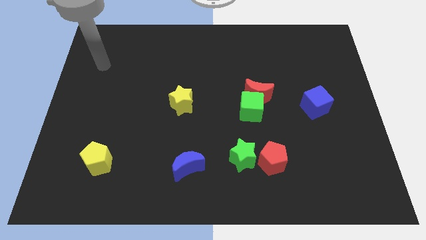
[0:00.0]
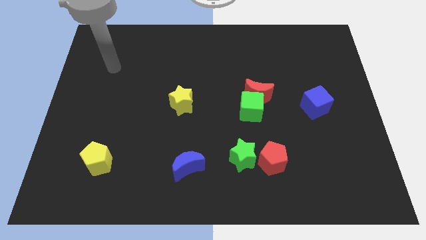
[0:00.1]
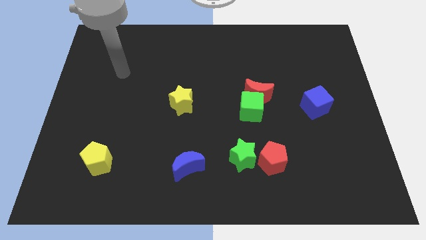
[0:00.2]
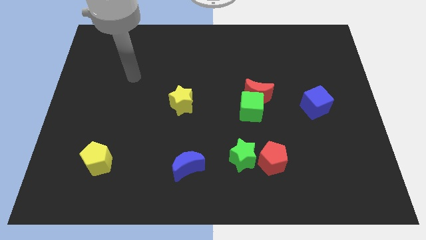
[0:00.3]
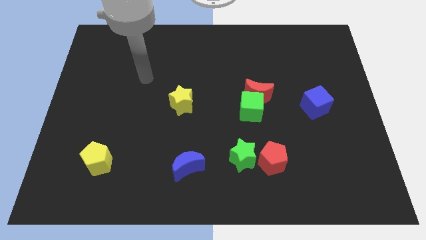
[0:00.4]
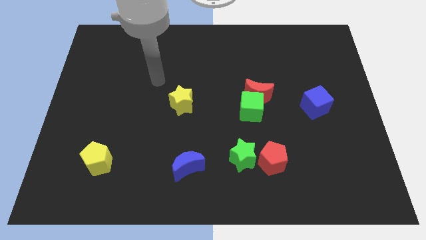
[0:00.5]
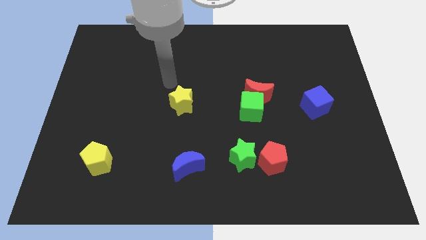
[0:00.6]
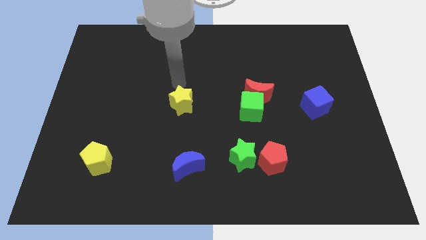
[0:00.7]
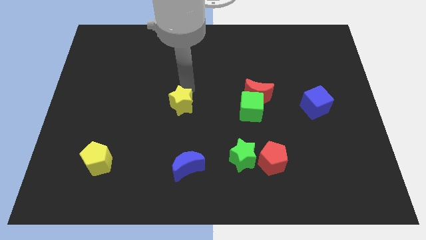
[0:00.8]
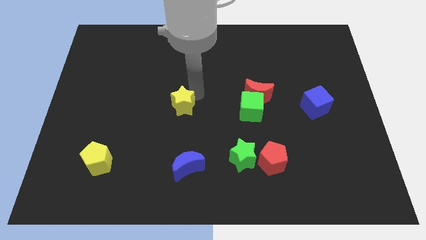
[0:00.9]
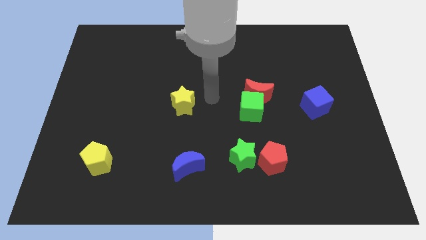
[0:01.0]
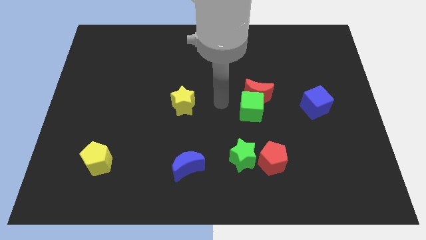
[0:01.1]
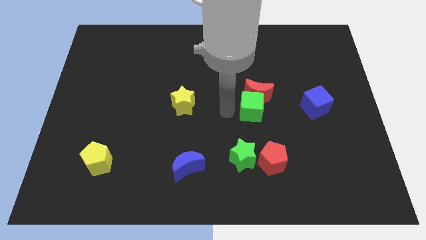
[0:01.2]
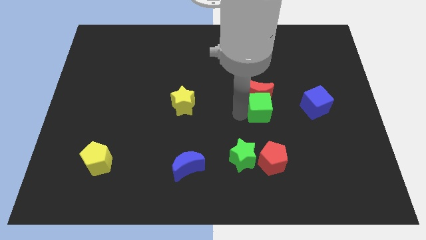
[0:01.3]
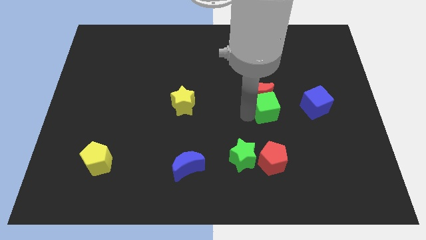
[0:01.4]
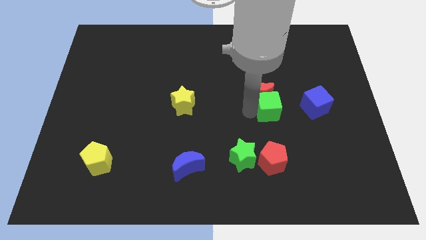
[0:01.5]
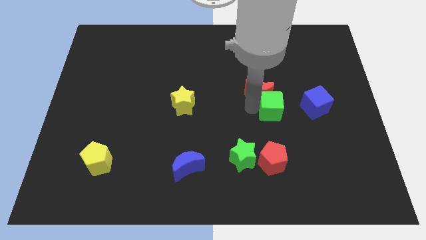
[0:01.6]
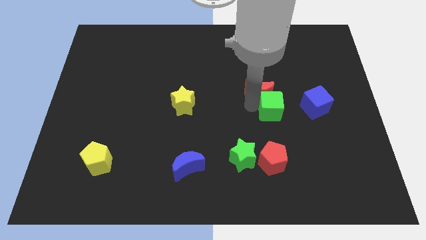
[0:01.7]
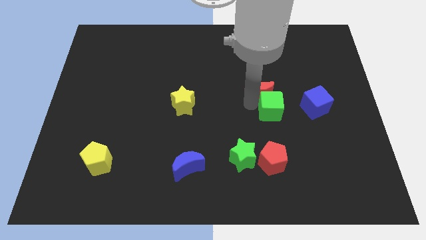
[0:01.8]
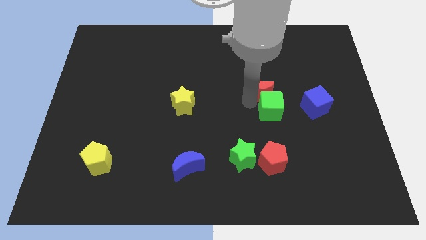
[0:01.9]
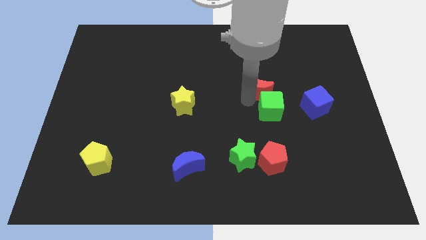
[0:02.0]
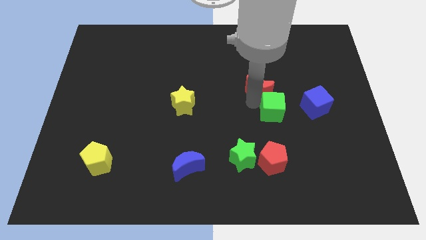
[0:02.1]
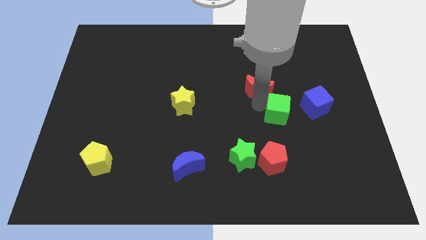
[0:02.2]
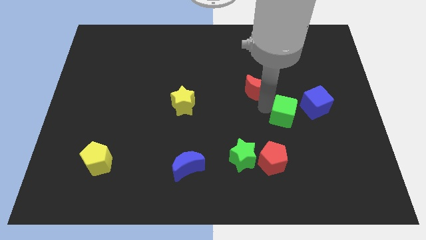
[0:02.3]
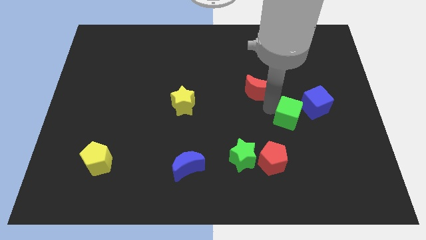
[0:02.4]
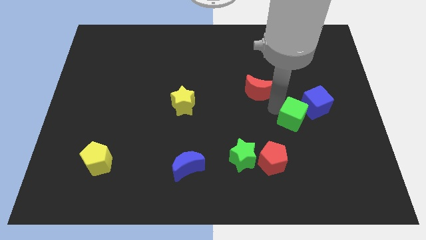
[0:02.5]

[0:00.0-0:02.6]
pull the red moon apart from the green cube

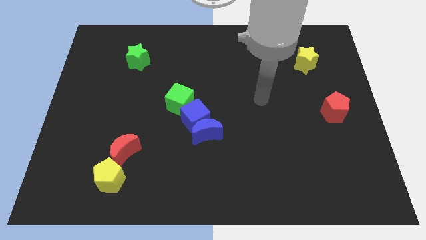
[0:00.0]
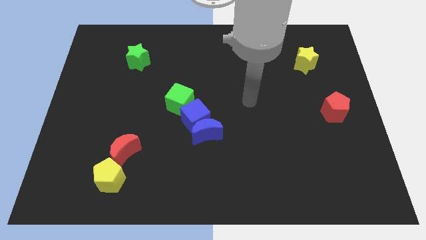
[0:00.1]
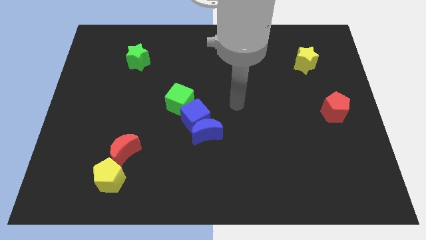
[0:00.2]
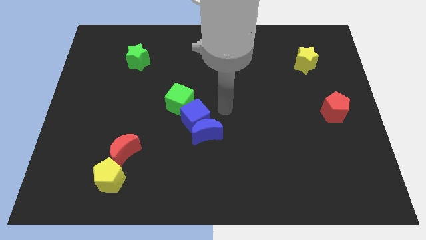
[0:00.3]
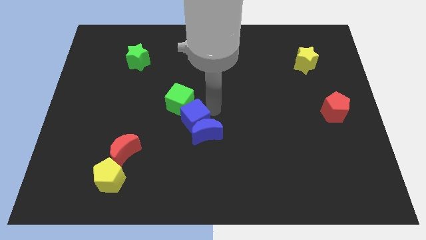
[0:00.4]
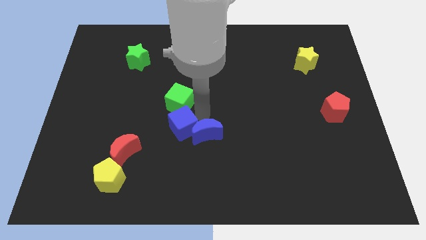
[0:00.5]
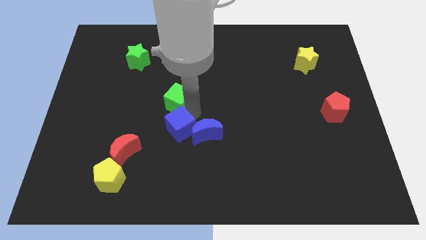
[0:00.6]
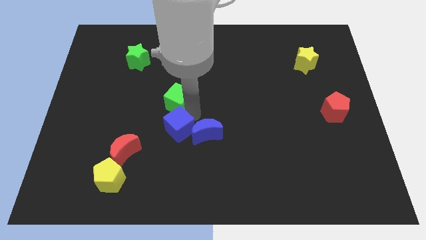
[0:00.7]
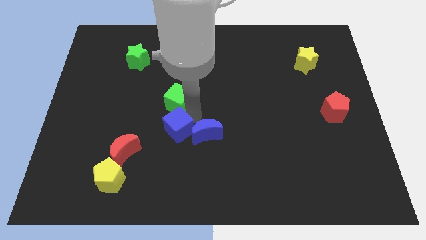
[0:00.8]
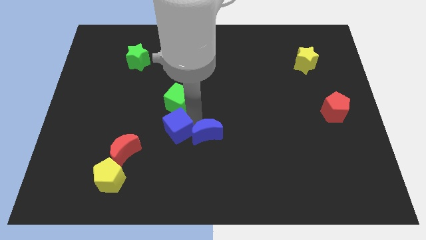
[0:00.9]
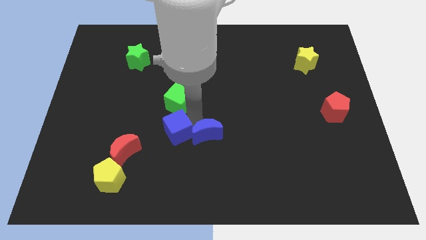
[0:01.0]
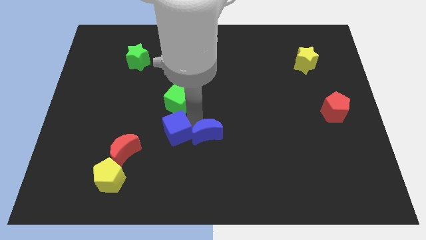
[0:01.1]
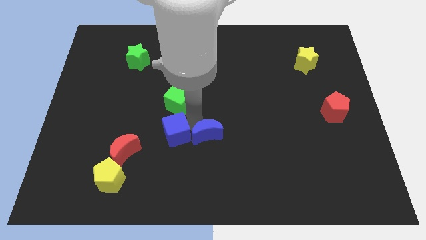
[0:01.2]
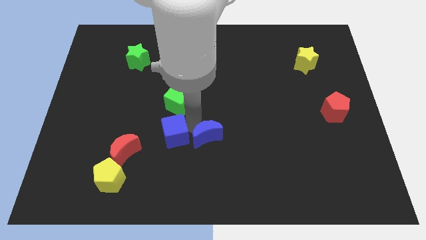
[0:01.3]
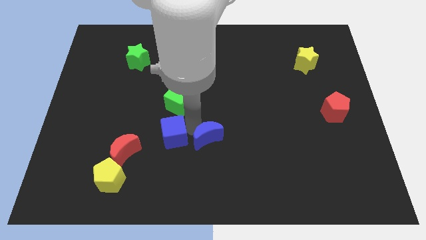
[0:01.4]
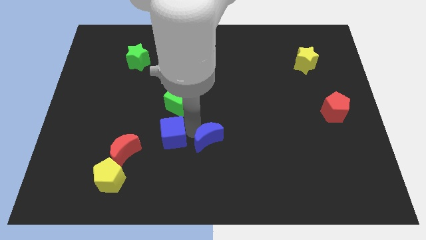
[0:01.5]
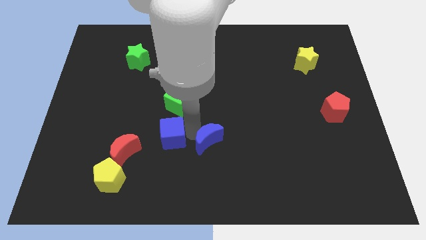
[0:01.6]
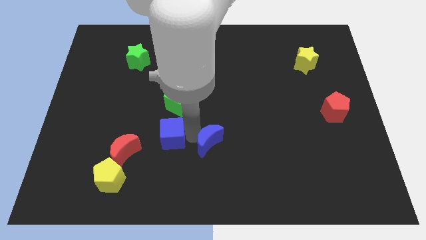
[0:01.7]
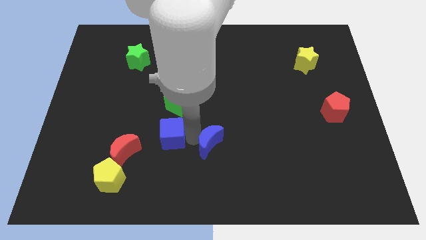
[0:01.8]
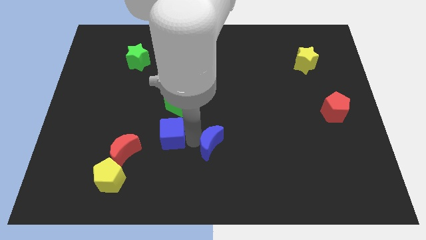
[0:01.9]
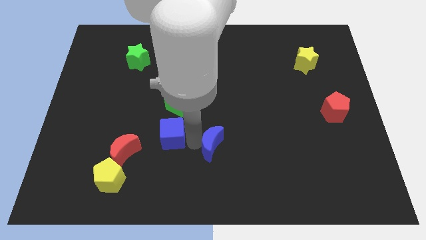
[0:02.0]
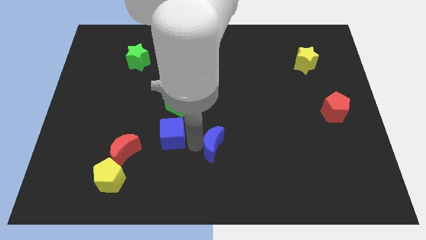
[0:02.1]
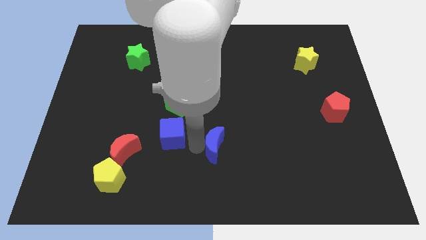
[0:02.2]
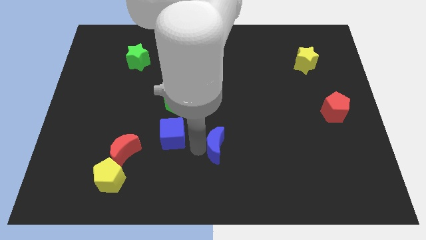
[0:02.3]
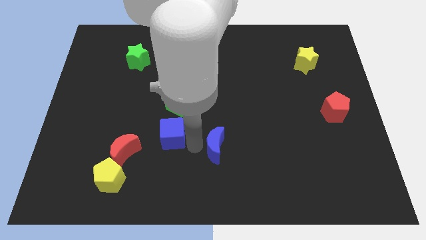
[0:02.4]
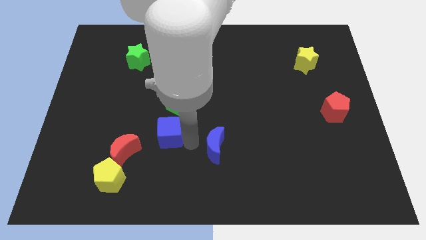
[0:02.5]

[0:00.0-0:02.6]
pull the blue moon apart from the blue cube

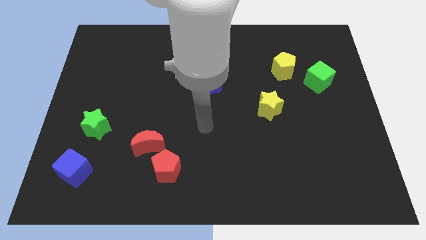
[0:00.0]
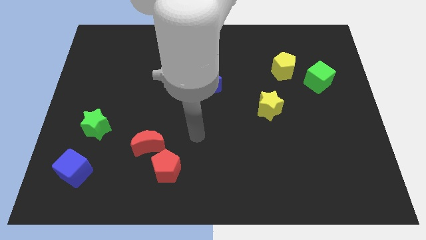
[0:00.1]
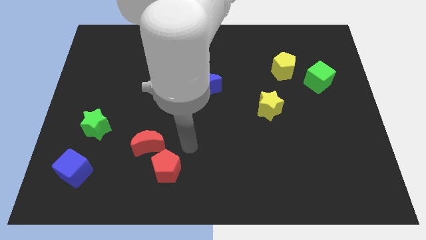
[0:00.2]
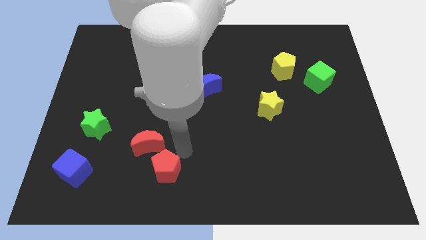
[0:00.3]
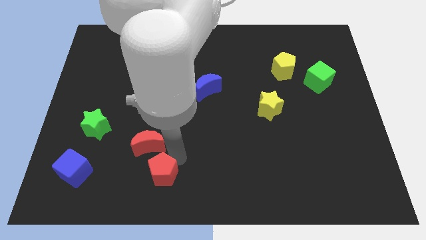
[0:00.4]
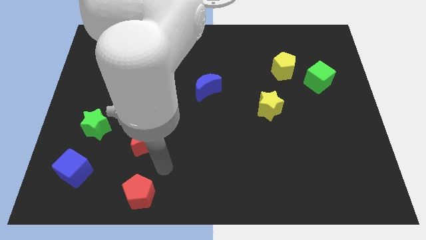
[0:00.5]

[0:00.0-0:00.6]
pull the red moon apart from the red pentagon

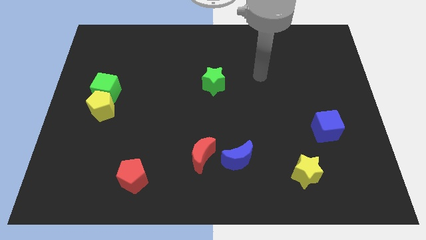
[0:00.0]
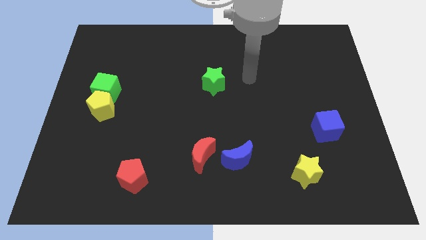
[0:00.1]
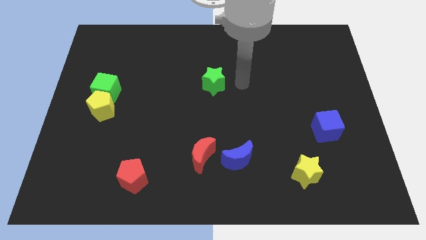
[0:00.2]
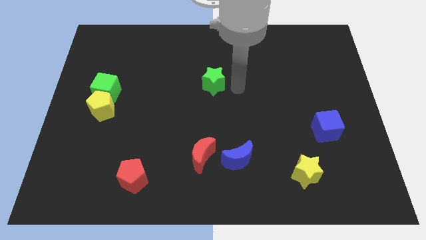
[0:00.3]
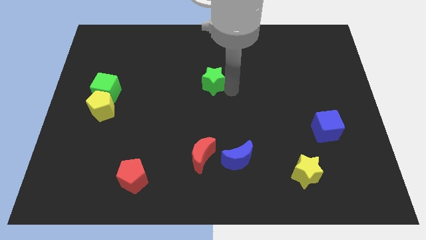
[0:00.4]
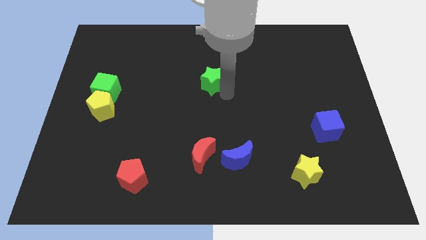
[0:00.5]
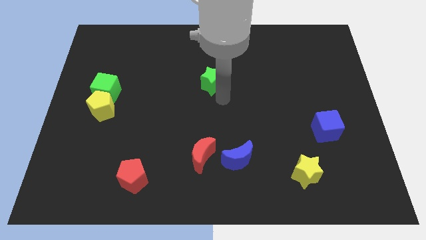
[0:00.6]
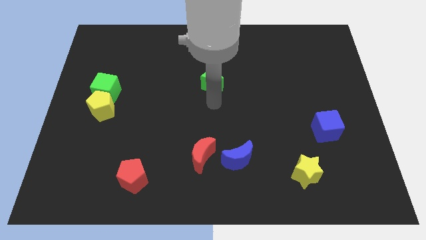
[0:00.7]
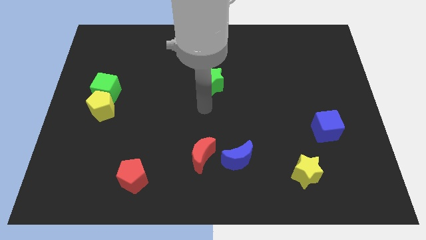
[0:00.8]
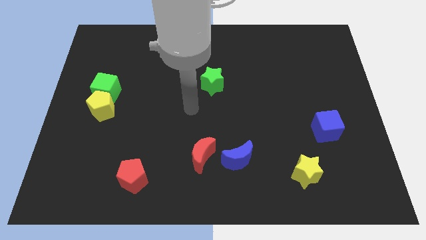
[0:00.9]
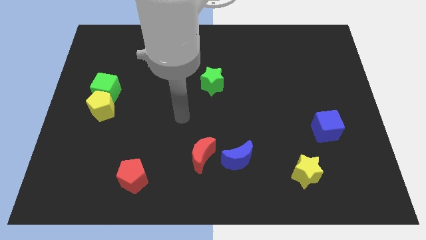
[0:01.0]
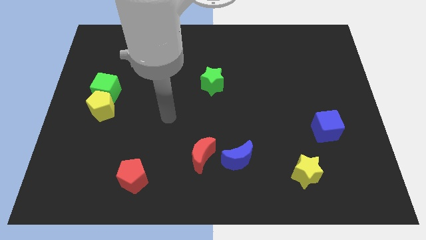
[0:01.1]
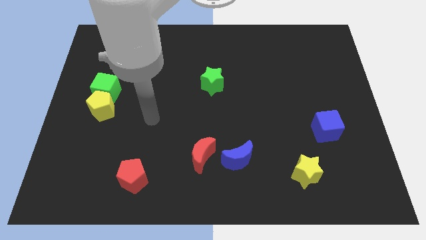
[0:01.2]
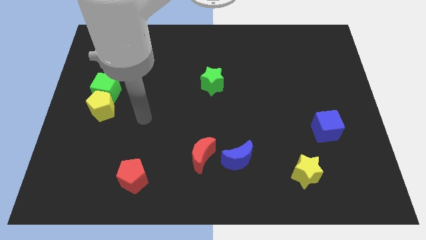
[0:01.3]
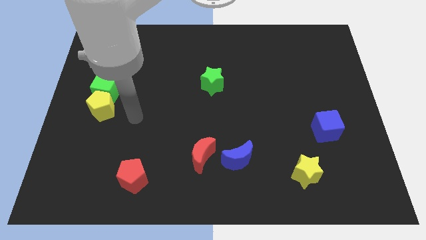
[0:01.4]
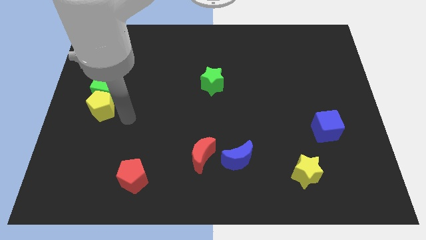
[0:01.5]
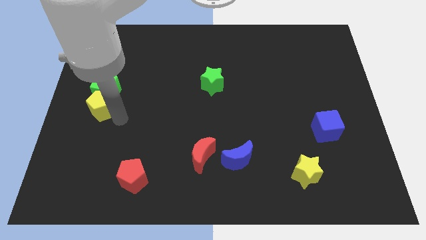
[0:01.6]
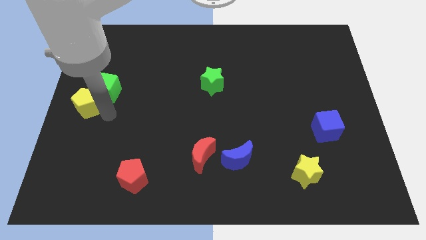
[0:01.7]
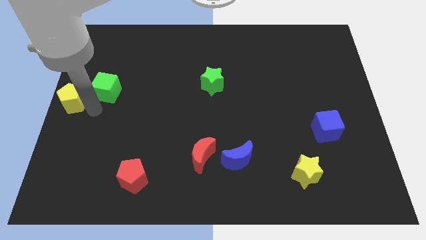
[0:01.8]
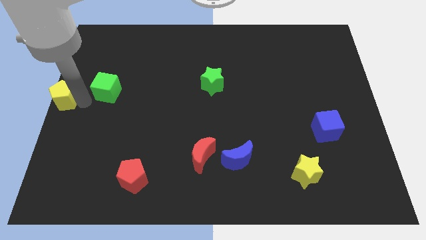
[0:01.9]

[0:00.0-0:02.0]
move the green cube away from the yellow pentagon

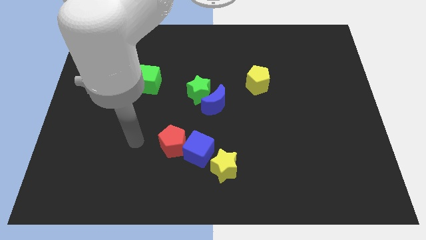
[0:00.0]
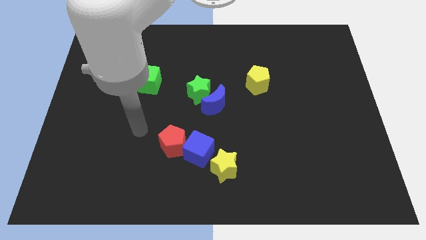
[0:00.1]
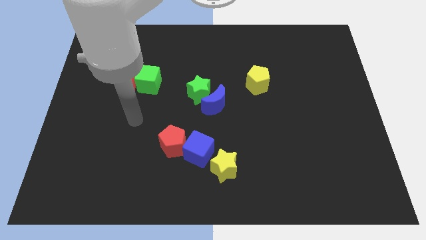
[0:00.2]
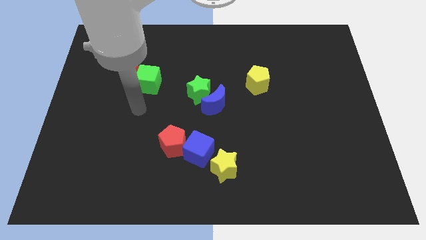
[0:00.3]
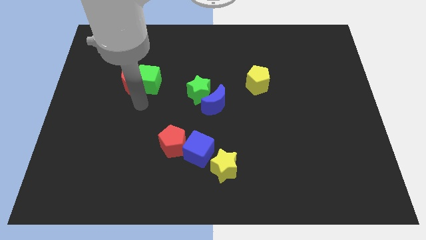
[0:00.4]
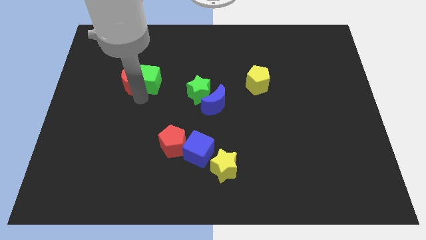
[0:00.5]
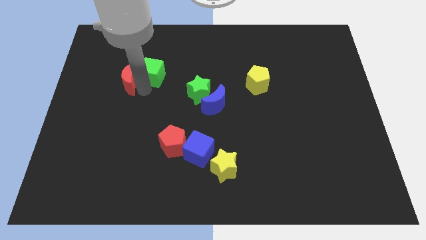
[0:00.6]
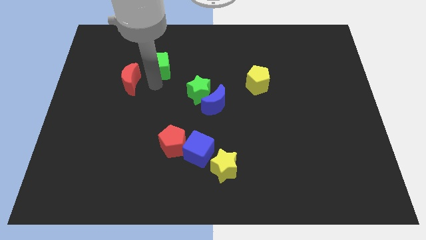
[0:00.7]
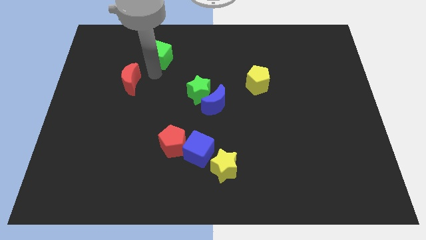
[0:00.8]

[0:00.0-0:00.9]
move the red moon away from the green cube

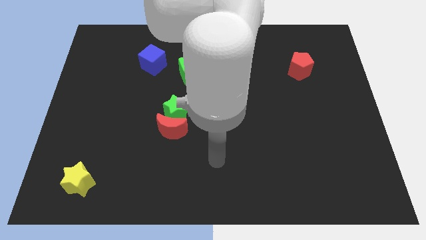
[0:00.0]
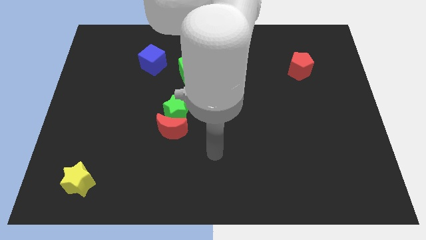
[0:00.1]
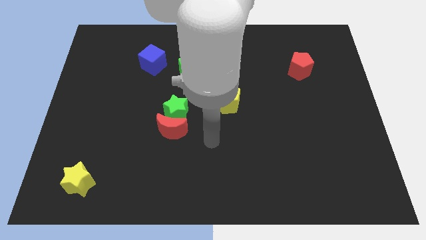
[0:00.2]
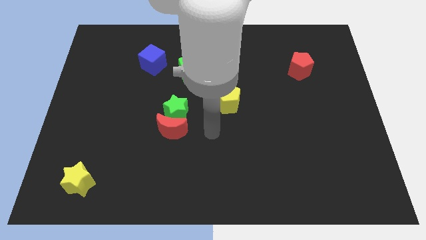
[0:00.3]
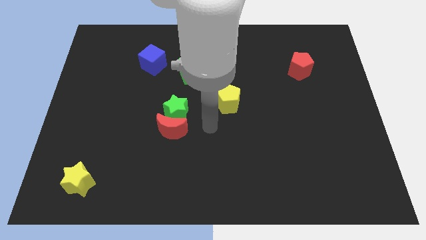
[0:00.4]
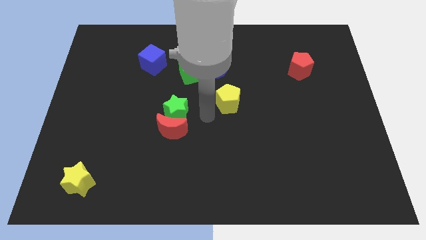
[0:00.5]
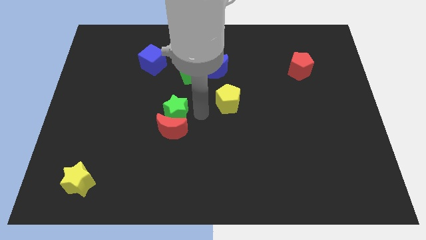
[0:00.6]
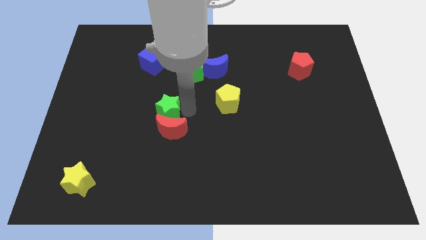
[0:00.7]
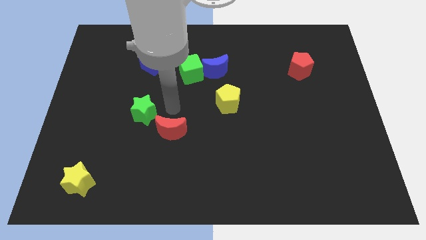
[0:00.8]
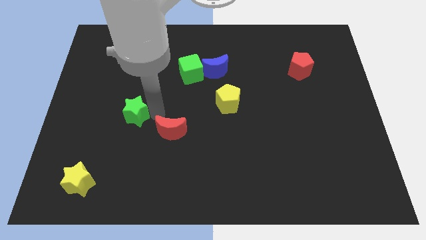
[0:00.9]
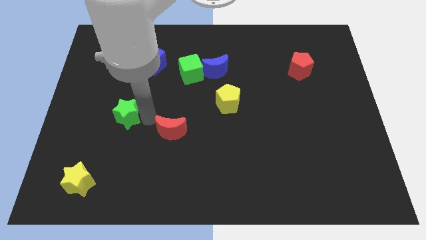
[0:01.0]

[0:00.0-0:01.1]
move the red moon away from the green star